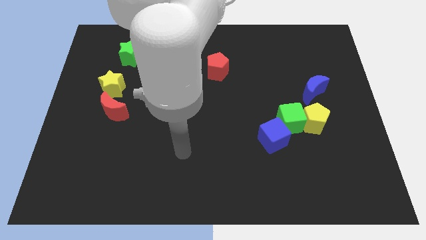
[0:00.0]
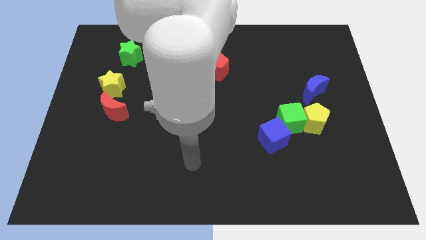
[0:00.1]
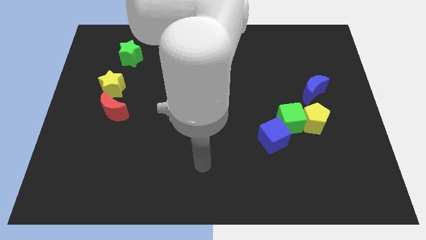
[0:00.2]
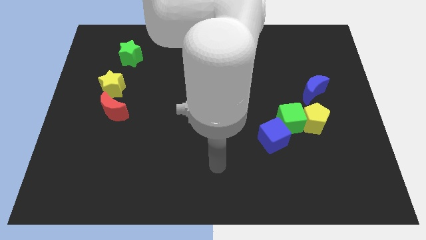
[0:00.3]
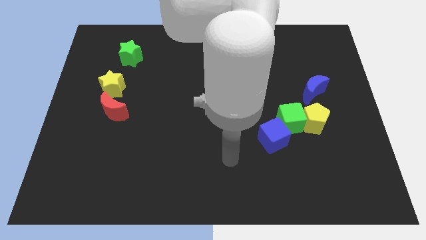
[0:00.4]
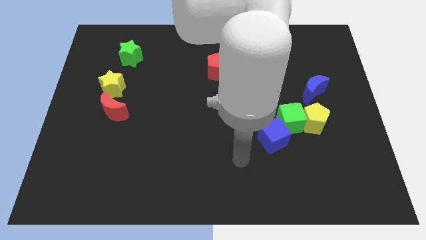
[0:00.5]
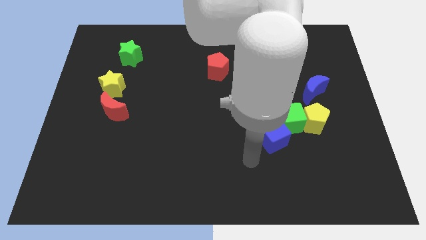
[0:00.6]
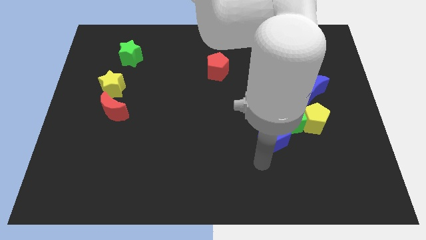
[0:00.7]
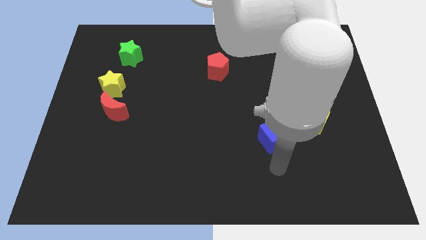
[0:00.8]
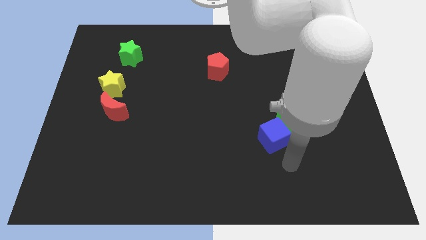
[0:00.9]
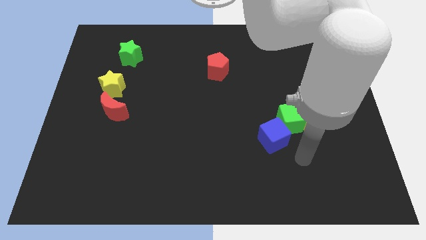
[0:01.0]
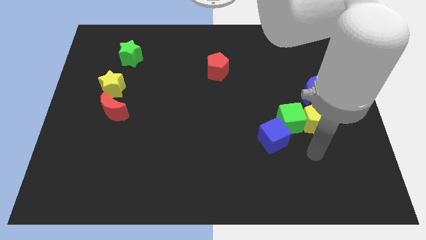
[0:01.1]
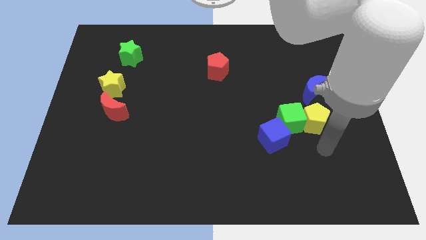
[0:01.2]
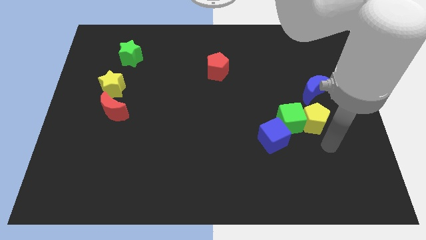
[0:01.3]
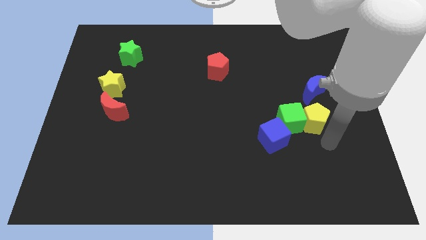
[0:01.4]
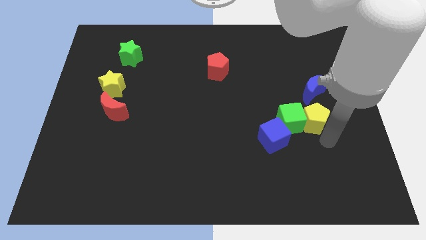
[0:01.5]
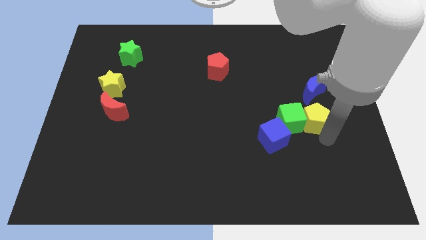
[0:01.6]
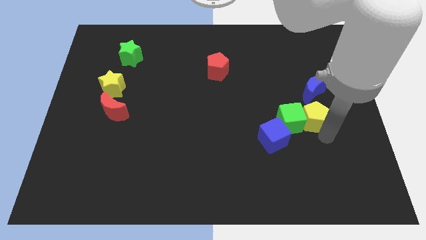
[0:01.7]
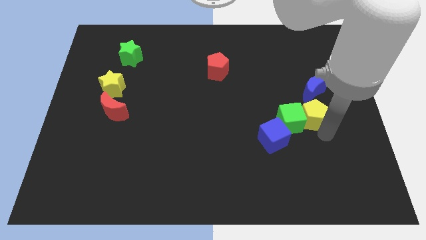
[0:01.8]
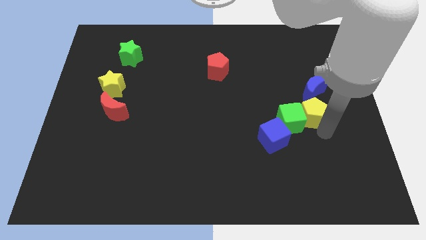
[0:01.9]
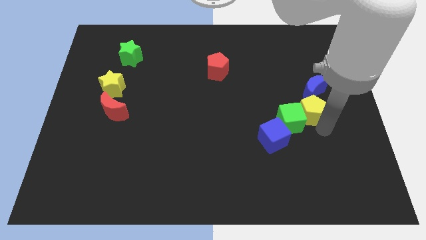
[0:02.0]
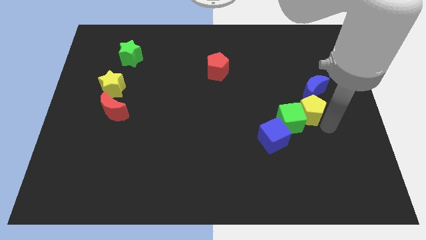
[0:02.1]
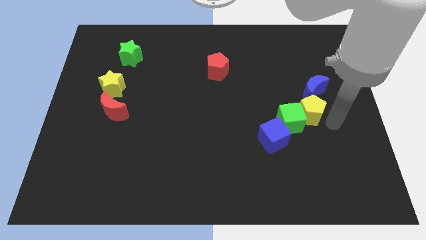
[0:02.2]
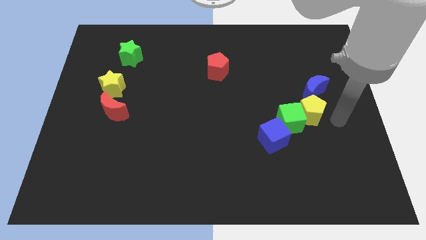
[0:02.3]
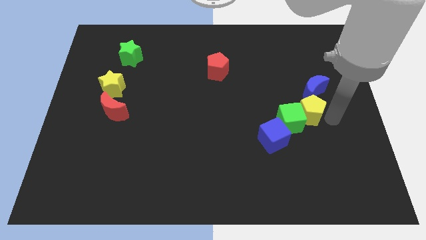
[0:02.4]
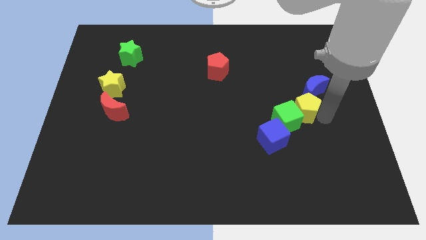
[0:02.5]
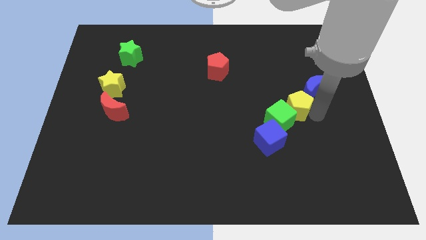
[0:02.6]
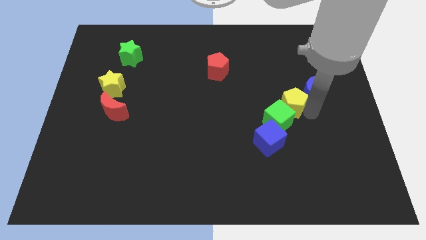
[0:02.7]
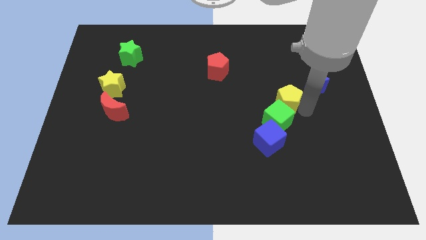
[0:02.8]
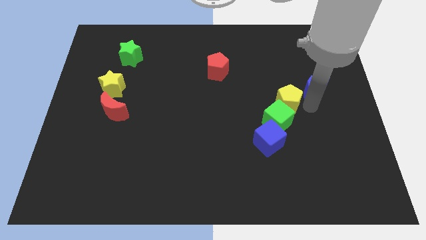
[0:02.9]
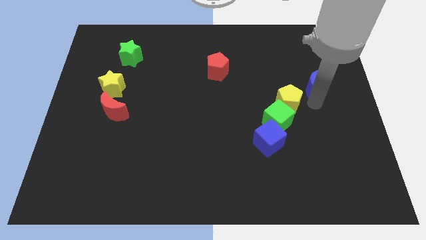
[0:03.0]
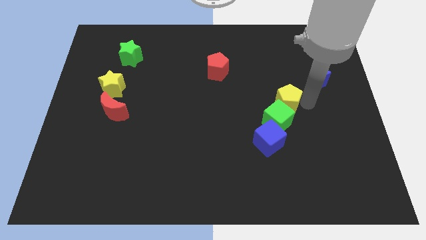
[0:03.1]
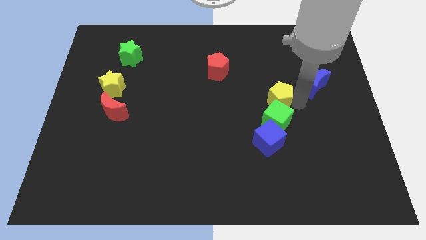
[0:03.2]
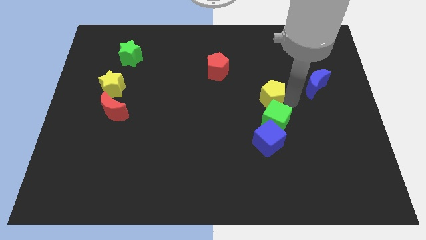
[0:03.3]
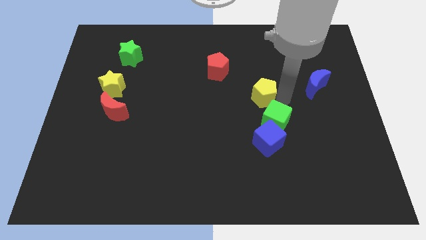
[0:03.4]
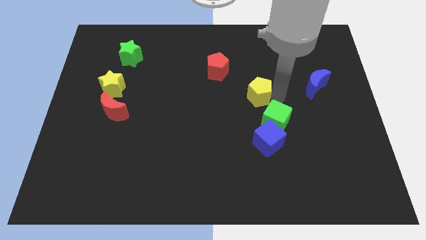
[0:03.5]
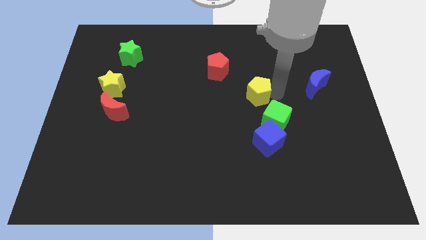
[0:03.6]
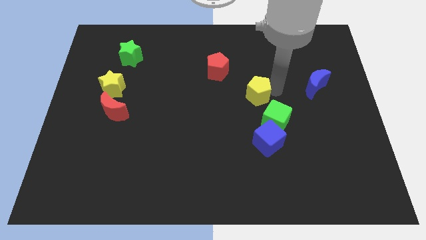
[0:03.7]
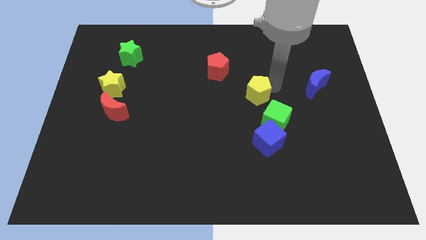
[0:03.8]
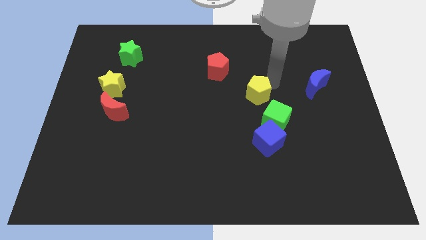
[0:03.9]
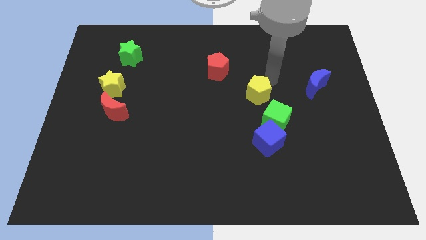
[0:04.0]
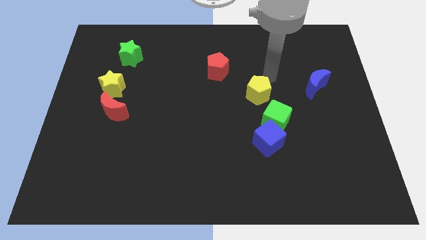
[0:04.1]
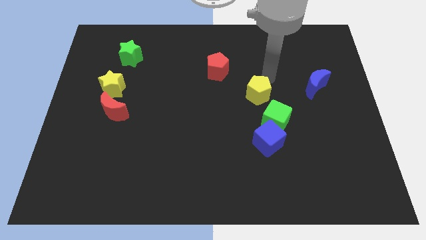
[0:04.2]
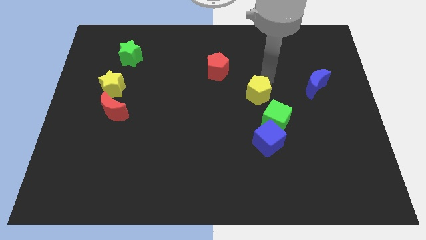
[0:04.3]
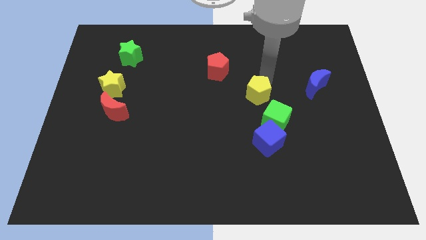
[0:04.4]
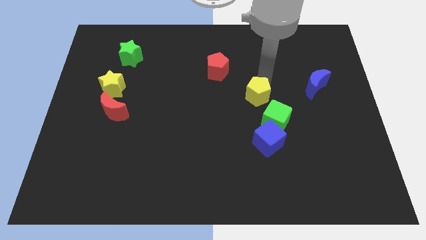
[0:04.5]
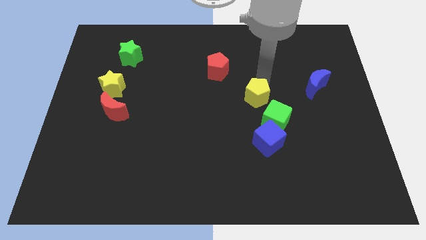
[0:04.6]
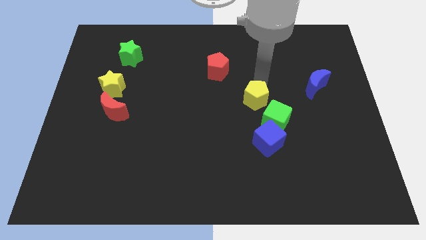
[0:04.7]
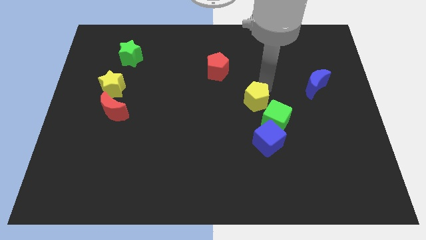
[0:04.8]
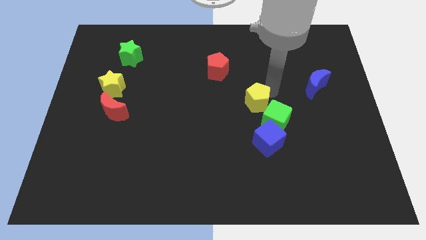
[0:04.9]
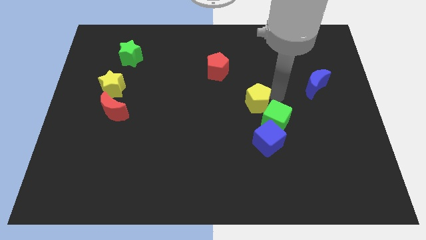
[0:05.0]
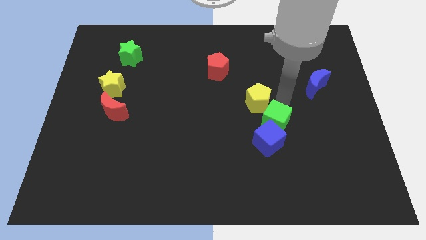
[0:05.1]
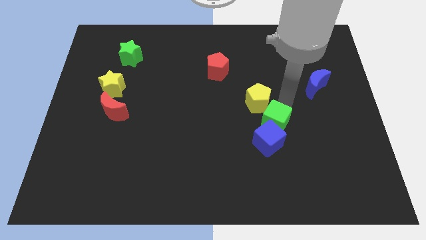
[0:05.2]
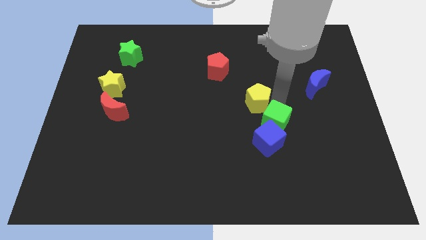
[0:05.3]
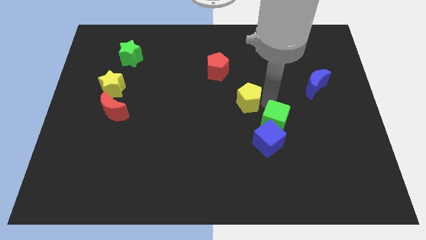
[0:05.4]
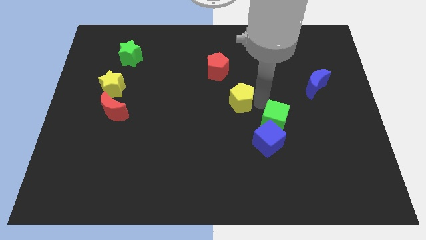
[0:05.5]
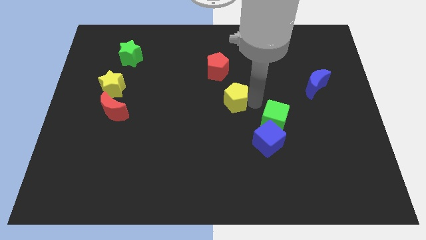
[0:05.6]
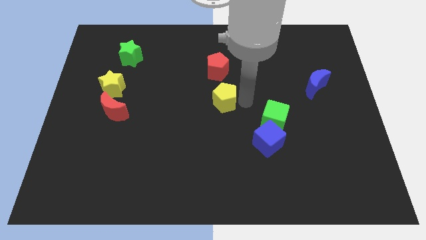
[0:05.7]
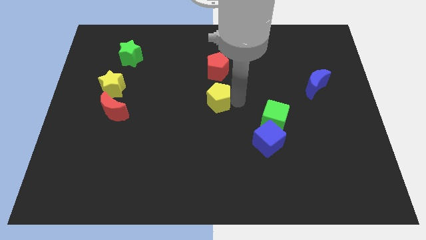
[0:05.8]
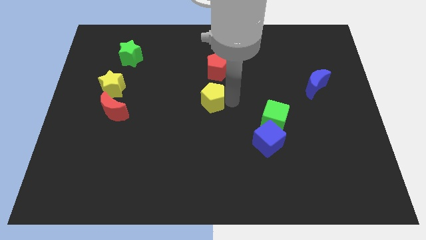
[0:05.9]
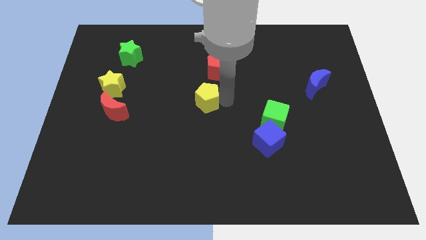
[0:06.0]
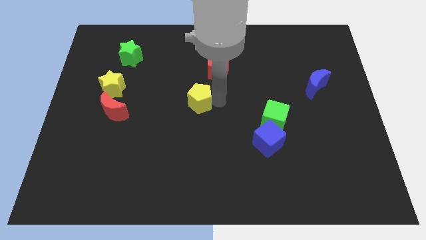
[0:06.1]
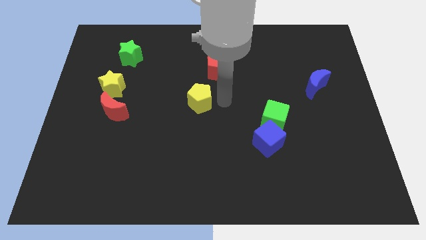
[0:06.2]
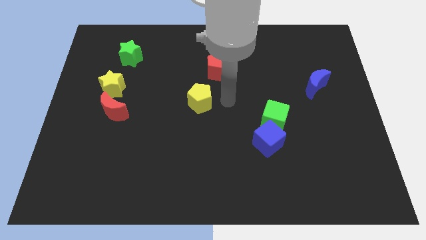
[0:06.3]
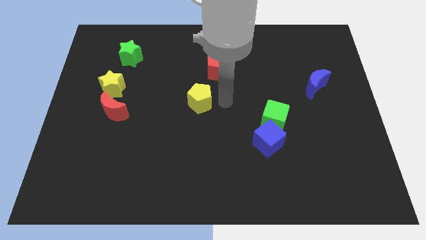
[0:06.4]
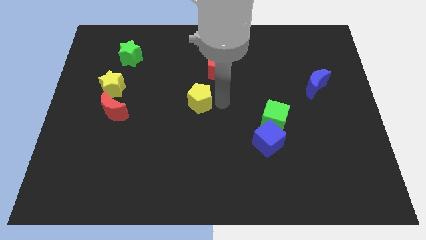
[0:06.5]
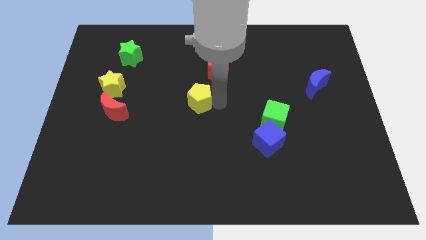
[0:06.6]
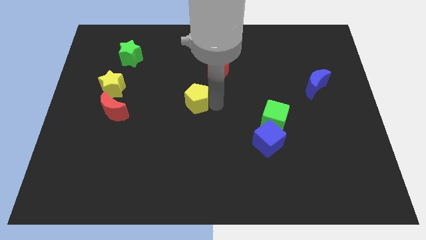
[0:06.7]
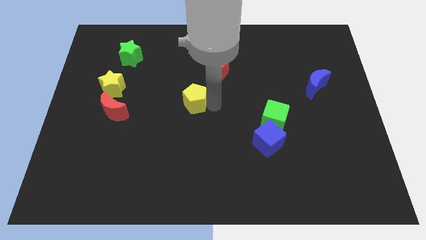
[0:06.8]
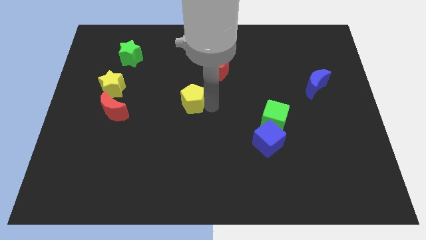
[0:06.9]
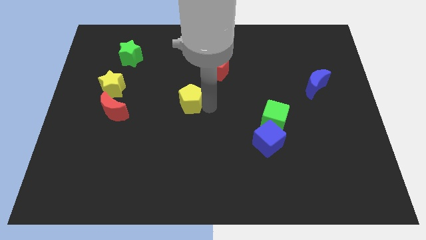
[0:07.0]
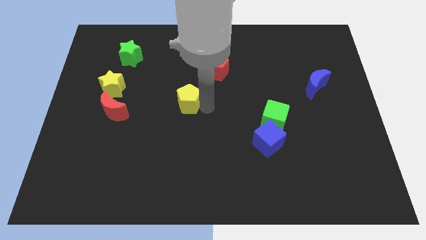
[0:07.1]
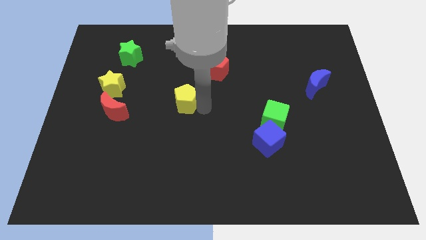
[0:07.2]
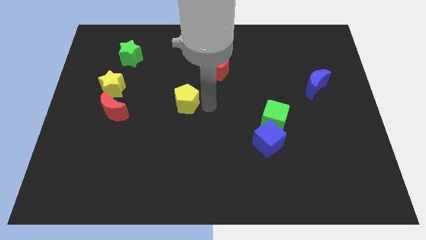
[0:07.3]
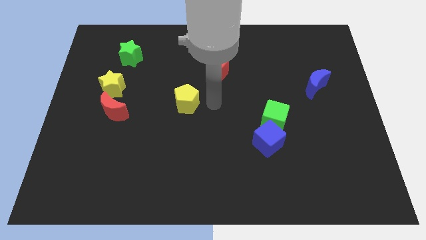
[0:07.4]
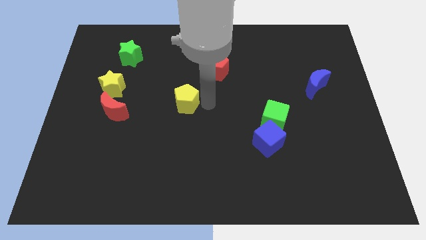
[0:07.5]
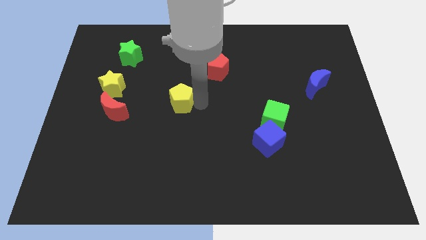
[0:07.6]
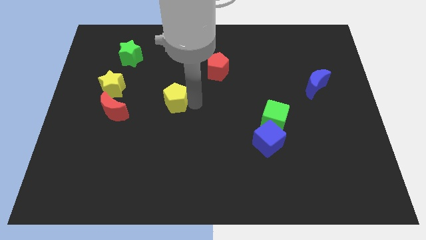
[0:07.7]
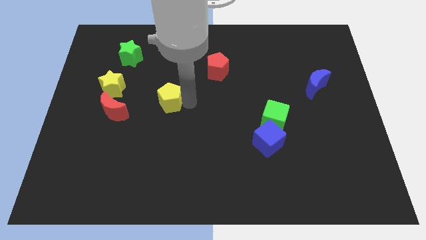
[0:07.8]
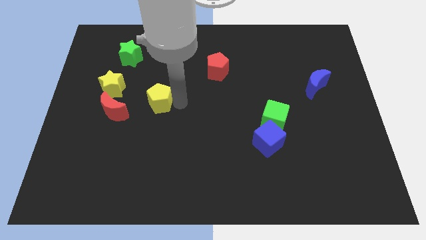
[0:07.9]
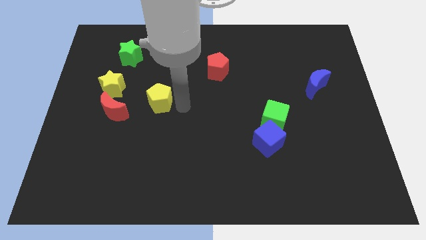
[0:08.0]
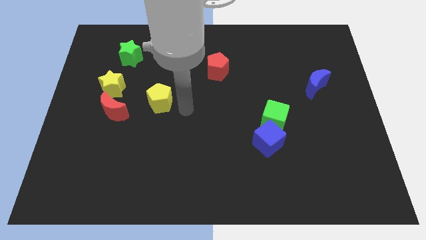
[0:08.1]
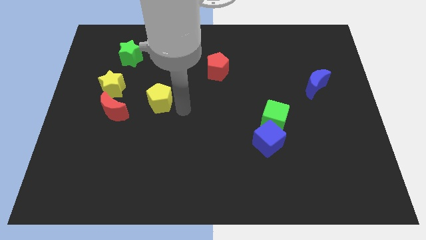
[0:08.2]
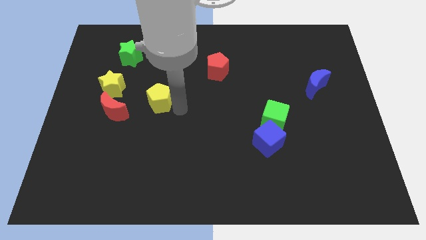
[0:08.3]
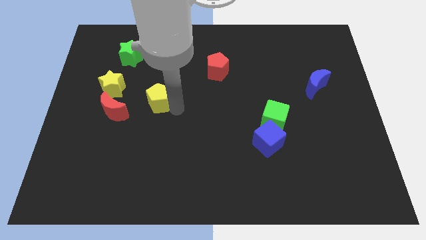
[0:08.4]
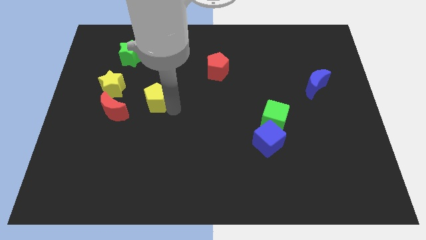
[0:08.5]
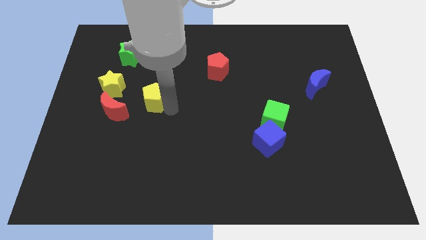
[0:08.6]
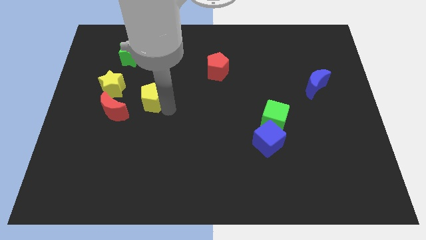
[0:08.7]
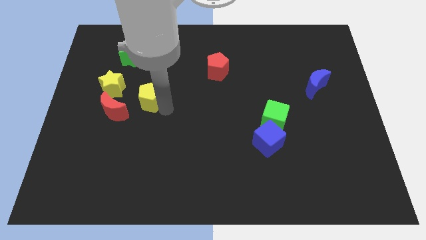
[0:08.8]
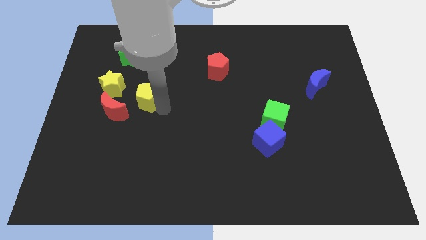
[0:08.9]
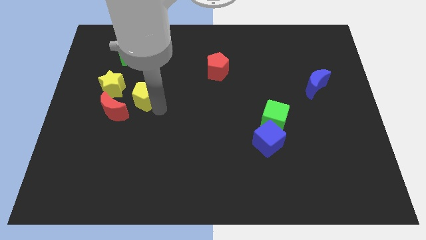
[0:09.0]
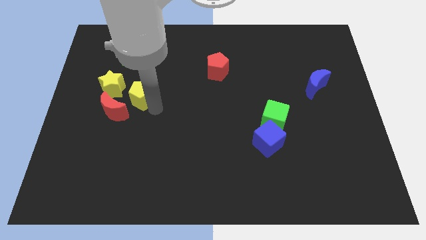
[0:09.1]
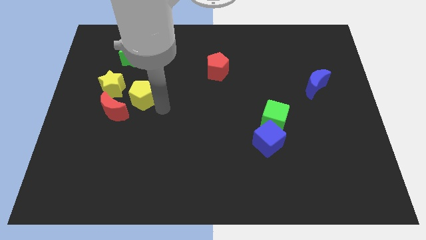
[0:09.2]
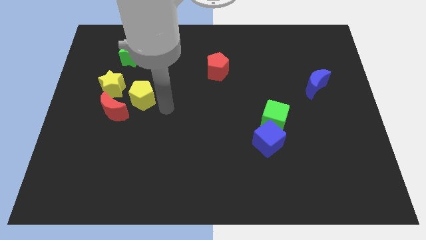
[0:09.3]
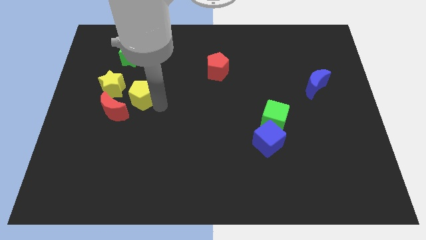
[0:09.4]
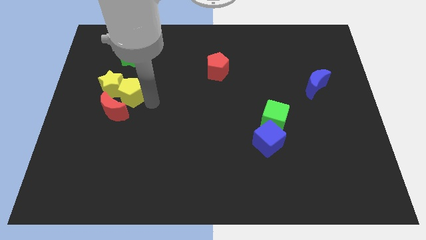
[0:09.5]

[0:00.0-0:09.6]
slide the yellow pentagon to the yellow star
